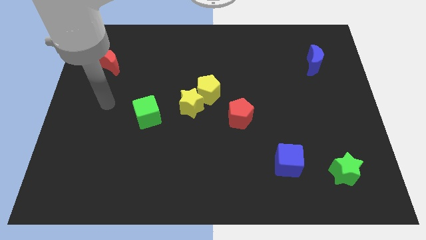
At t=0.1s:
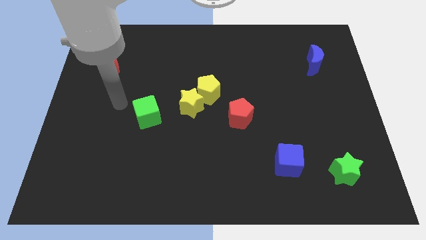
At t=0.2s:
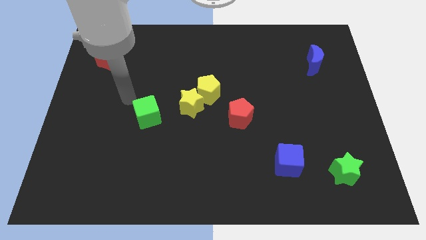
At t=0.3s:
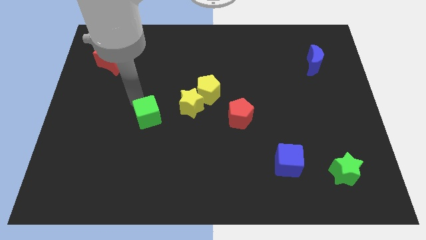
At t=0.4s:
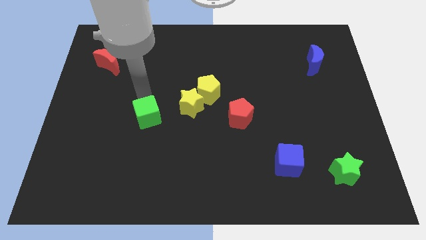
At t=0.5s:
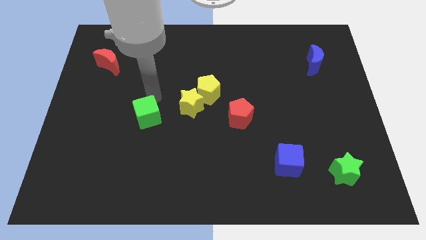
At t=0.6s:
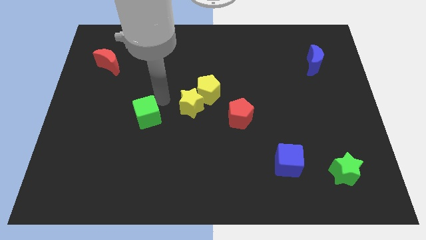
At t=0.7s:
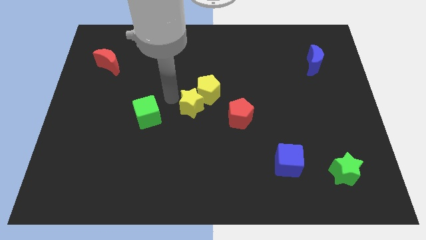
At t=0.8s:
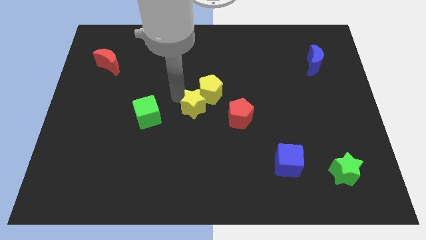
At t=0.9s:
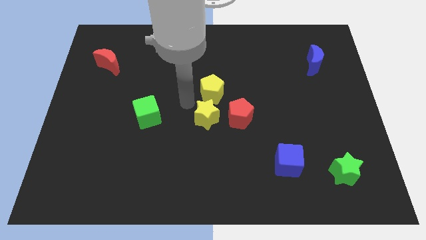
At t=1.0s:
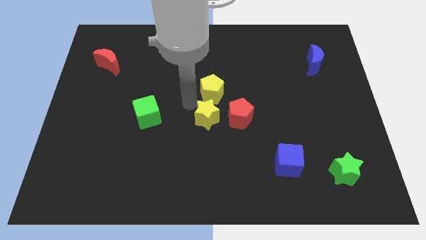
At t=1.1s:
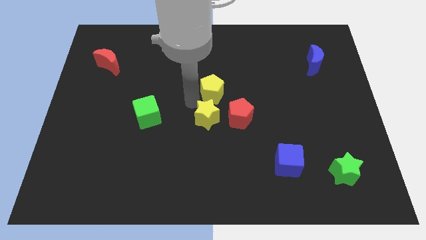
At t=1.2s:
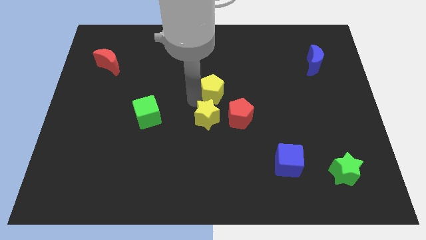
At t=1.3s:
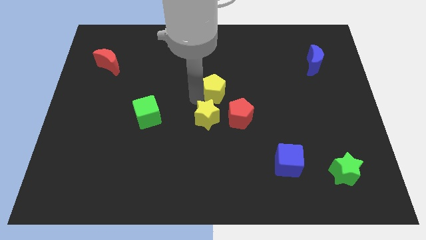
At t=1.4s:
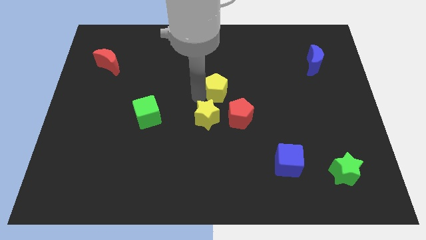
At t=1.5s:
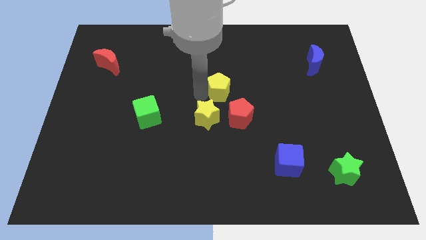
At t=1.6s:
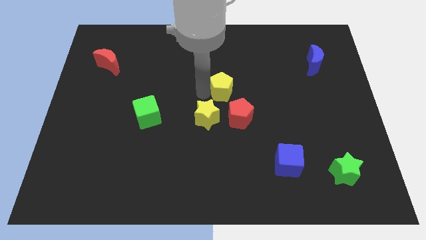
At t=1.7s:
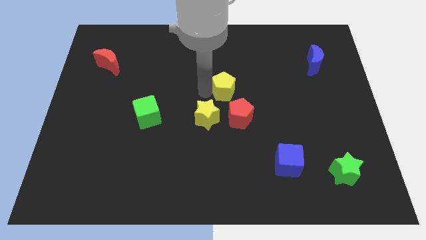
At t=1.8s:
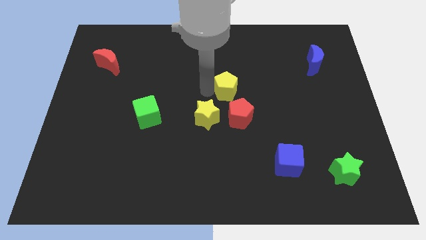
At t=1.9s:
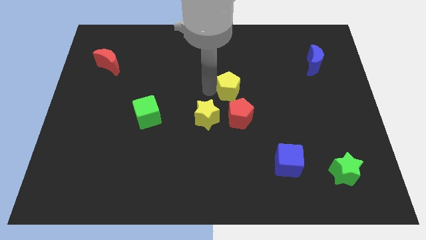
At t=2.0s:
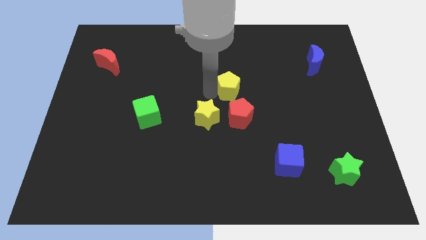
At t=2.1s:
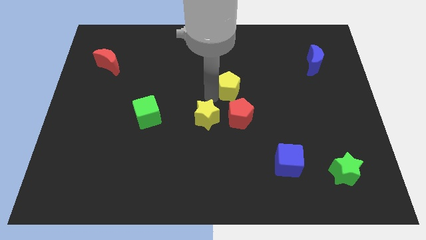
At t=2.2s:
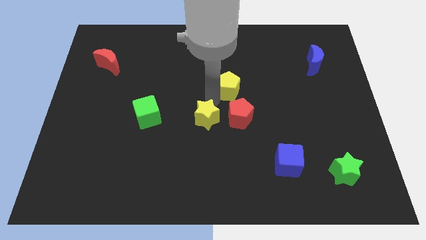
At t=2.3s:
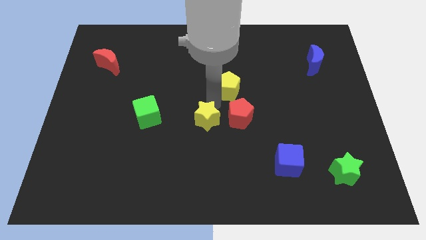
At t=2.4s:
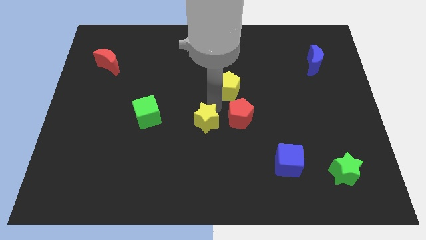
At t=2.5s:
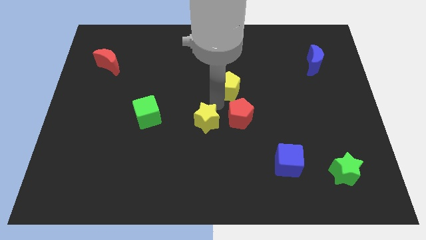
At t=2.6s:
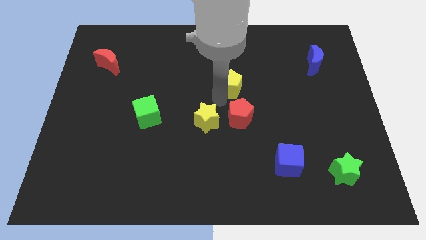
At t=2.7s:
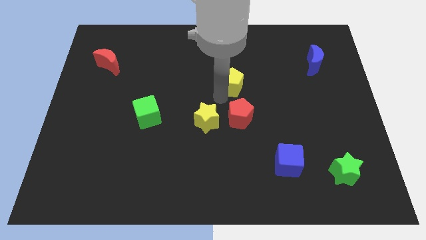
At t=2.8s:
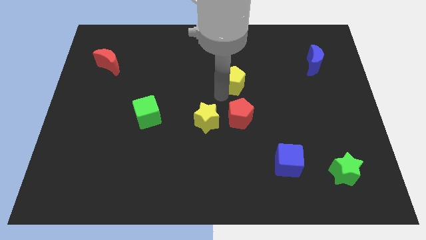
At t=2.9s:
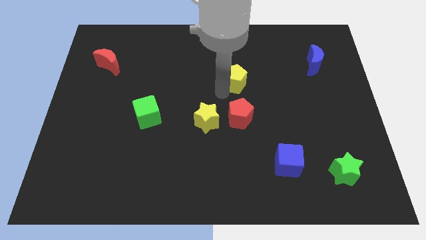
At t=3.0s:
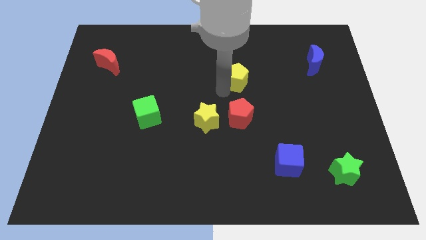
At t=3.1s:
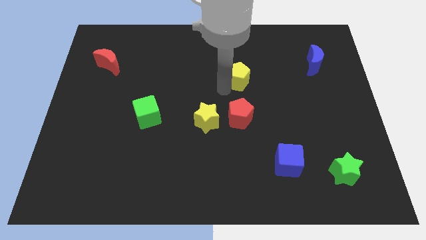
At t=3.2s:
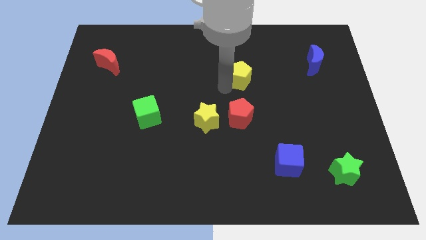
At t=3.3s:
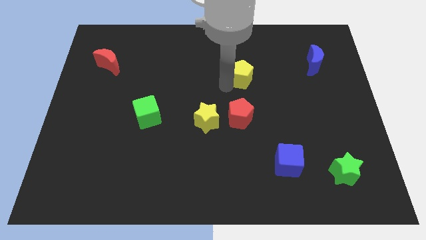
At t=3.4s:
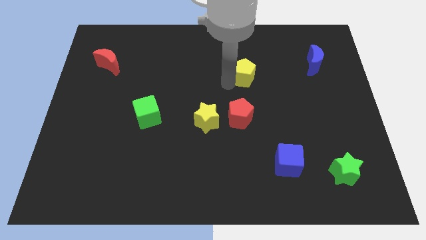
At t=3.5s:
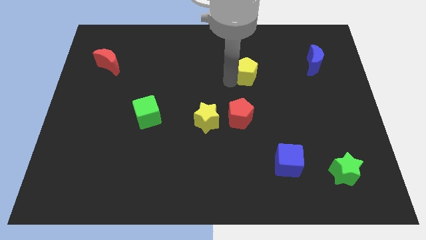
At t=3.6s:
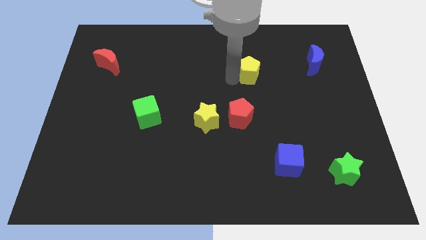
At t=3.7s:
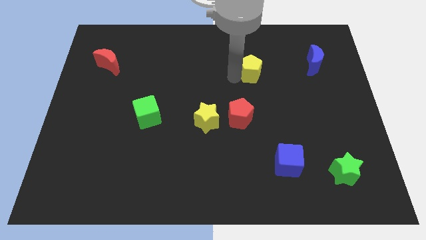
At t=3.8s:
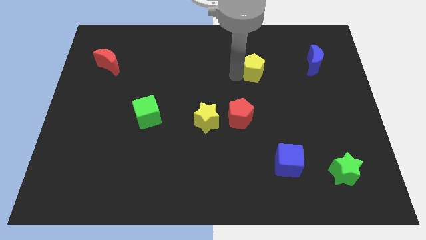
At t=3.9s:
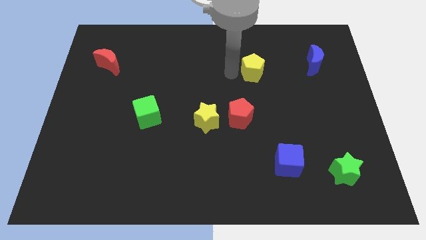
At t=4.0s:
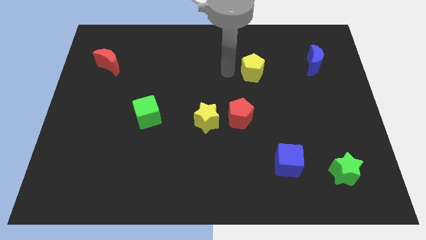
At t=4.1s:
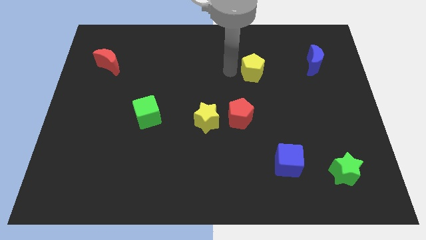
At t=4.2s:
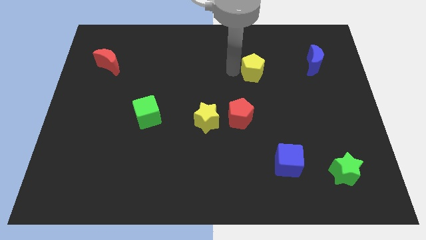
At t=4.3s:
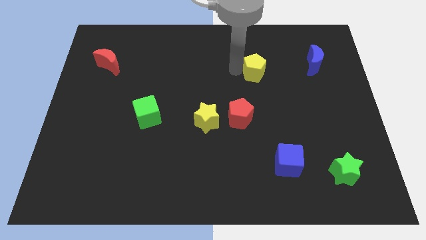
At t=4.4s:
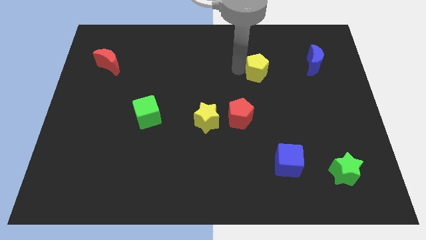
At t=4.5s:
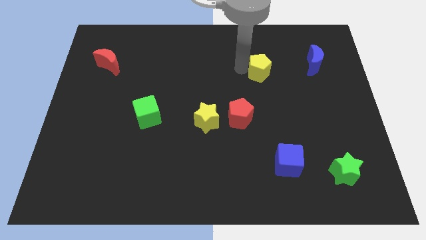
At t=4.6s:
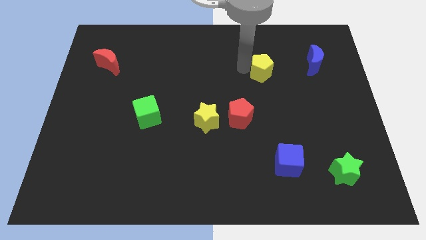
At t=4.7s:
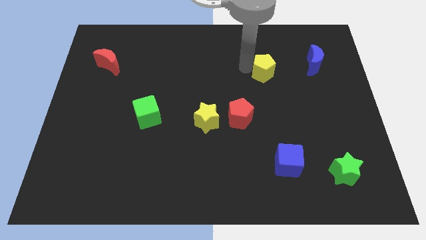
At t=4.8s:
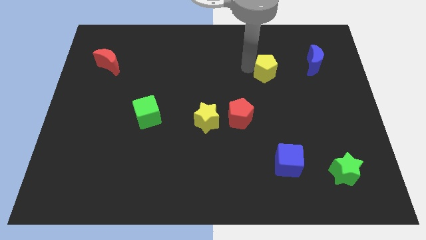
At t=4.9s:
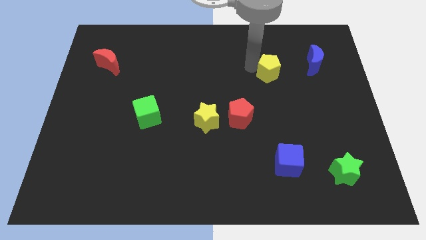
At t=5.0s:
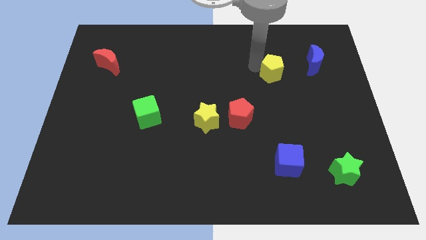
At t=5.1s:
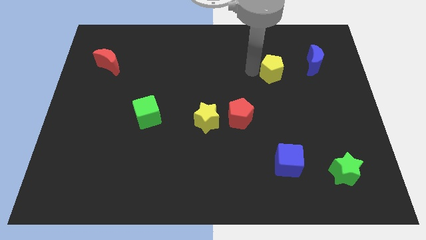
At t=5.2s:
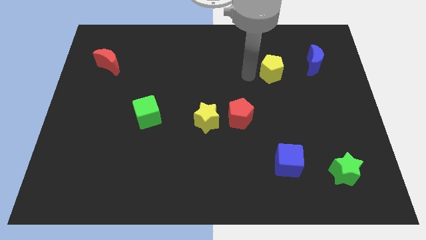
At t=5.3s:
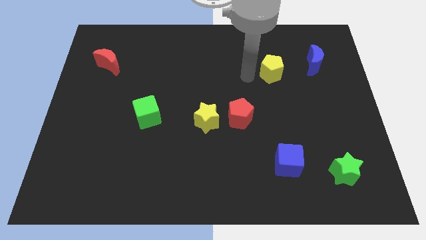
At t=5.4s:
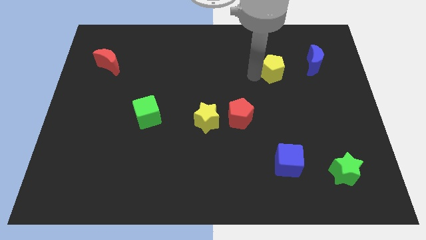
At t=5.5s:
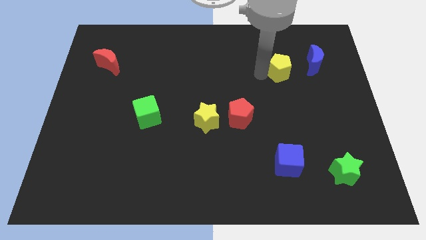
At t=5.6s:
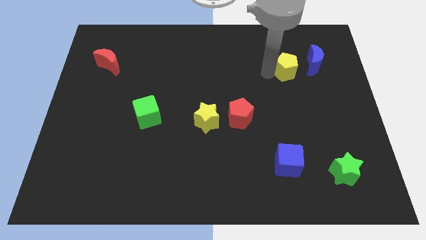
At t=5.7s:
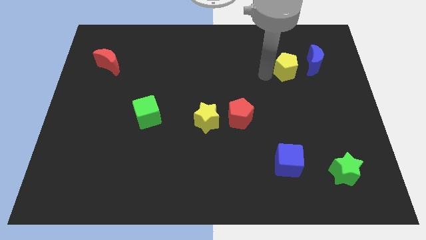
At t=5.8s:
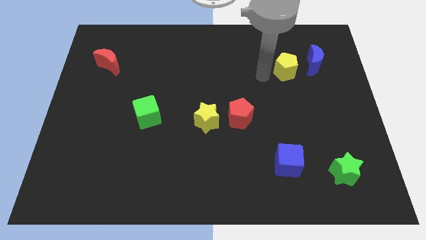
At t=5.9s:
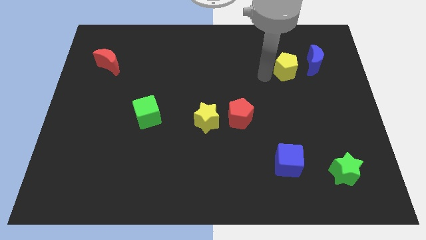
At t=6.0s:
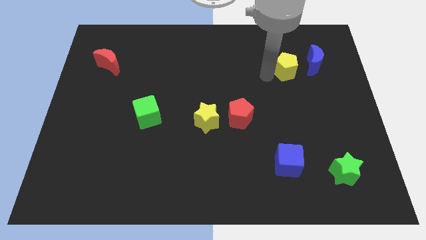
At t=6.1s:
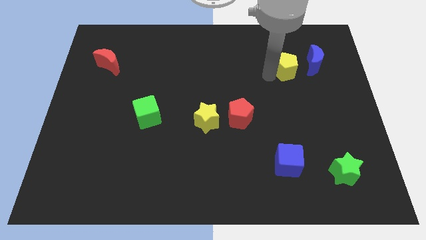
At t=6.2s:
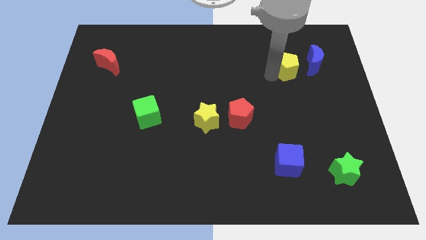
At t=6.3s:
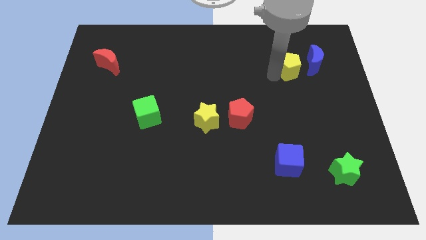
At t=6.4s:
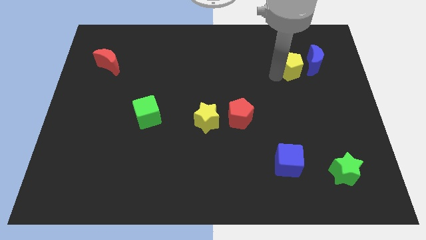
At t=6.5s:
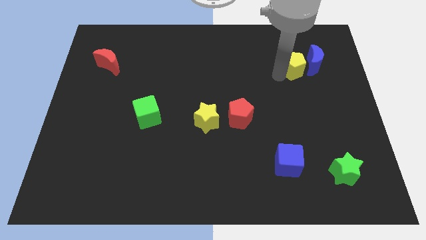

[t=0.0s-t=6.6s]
push the yellow pentagon to the blue moon

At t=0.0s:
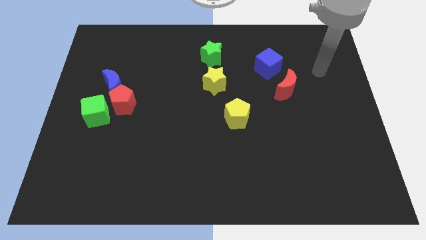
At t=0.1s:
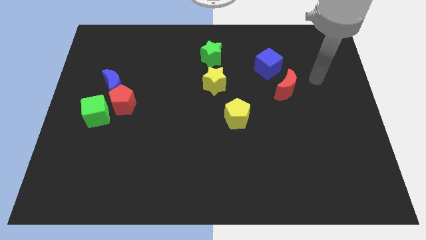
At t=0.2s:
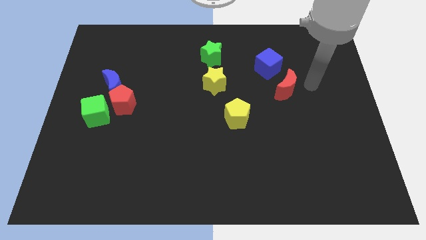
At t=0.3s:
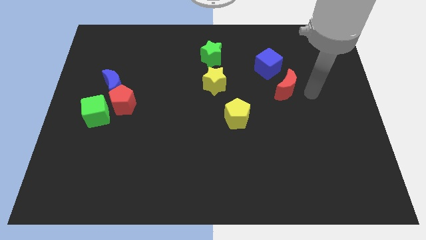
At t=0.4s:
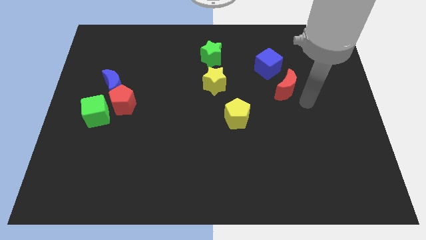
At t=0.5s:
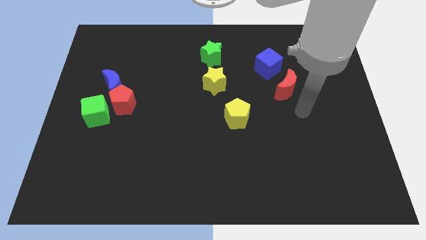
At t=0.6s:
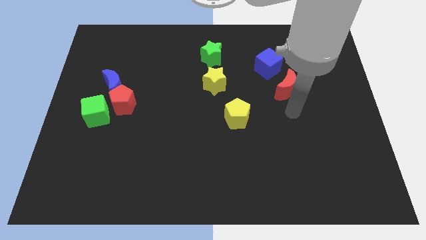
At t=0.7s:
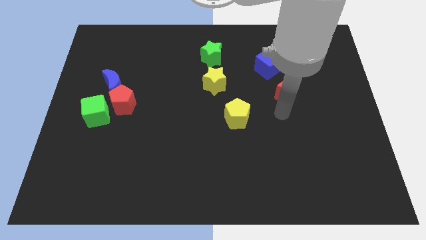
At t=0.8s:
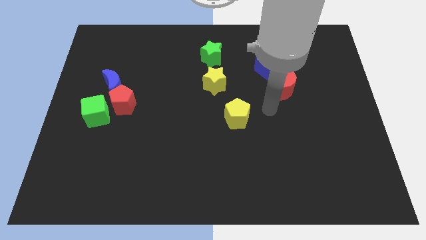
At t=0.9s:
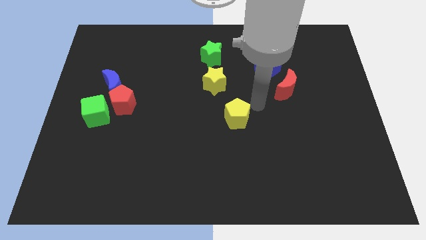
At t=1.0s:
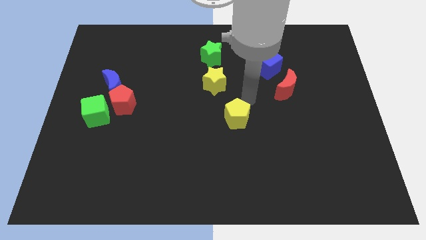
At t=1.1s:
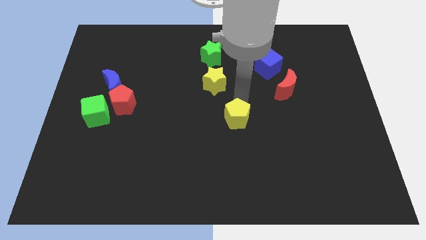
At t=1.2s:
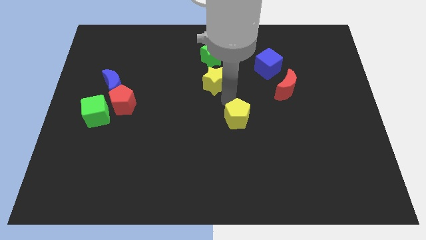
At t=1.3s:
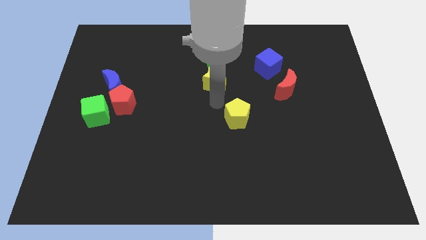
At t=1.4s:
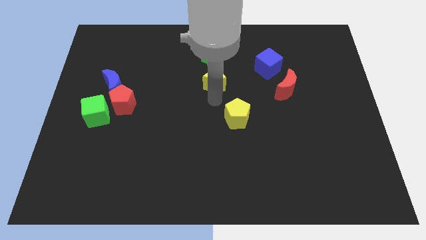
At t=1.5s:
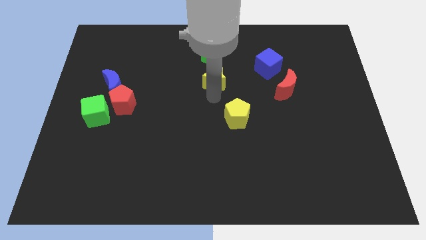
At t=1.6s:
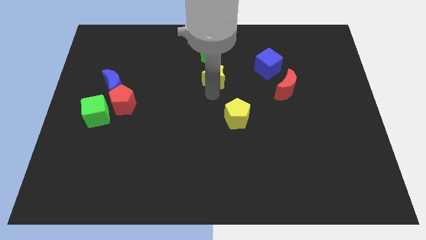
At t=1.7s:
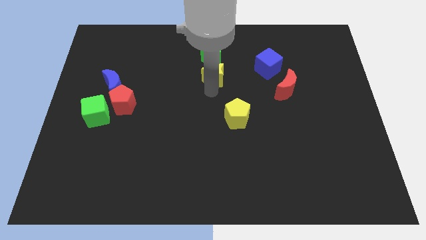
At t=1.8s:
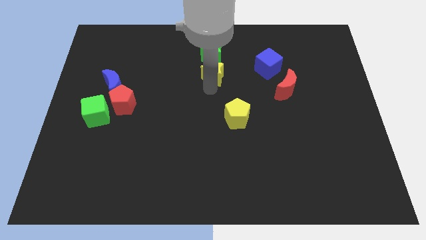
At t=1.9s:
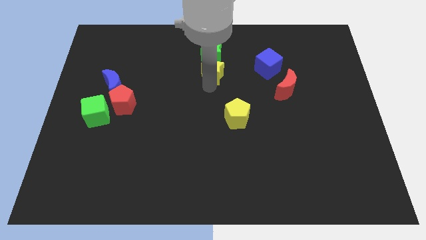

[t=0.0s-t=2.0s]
put the yellow star towards the green star
